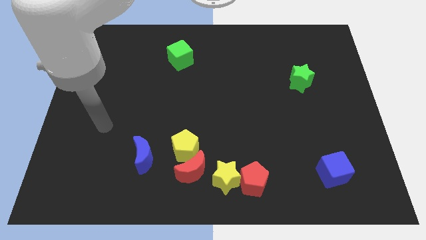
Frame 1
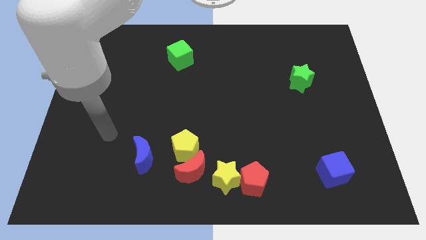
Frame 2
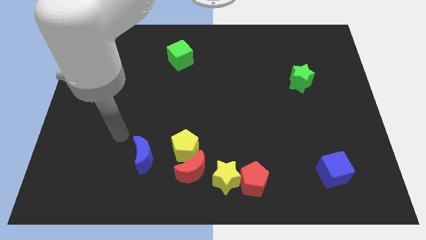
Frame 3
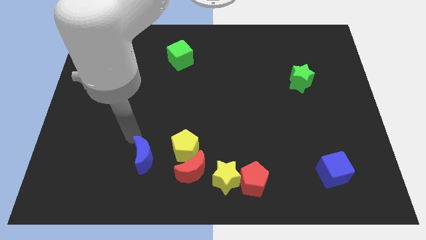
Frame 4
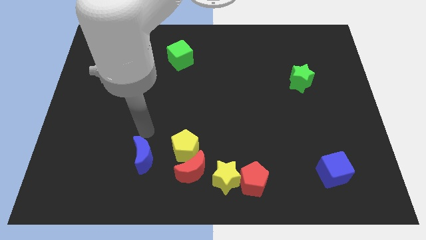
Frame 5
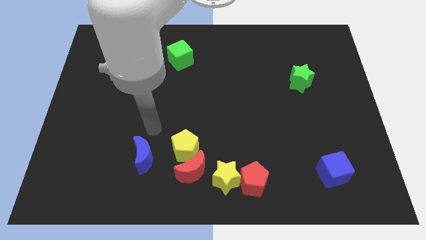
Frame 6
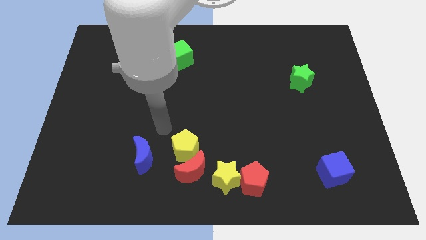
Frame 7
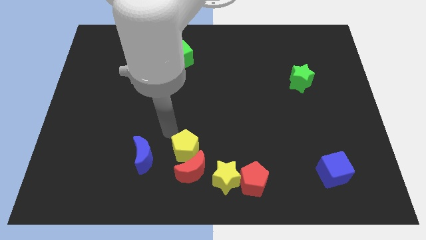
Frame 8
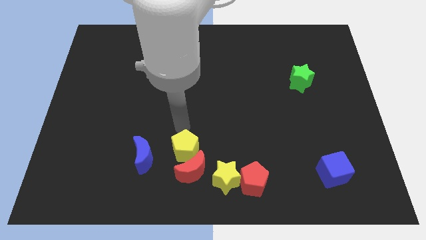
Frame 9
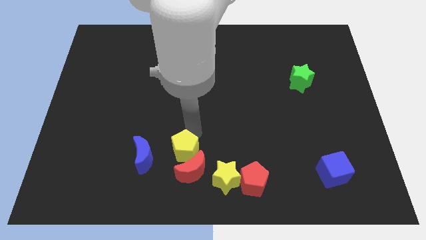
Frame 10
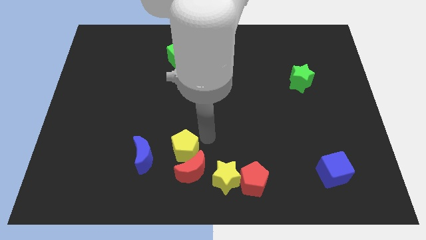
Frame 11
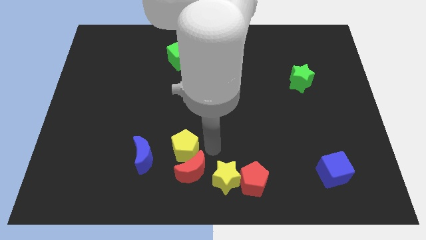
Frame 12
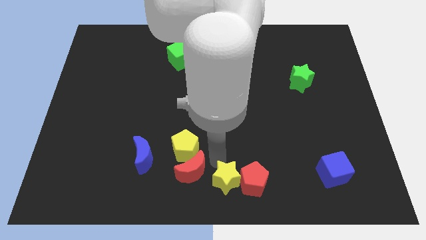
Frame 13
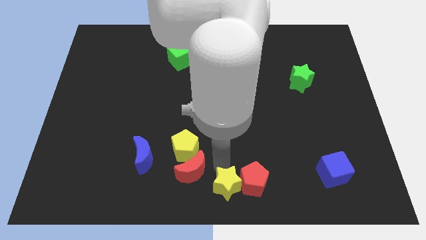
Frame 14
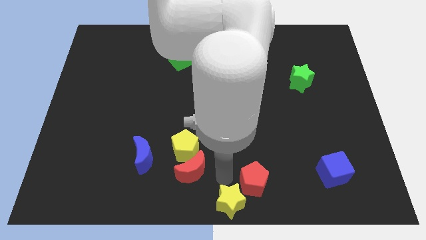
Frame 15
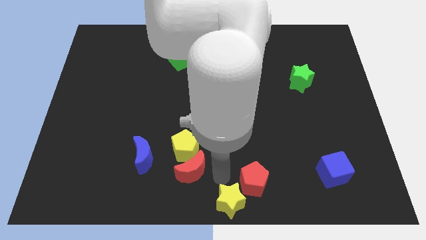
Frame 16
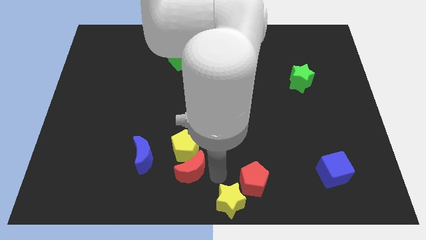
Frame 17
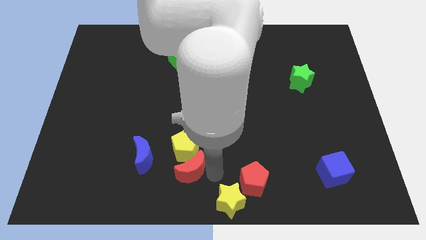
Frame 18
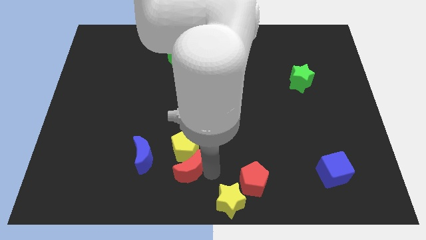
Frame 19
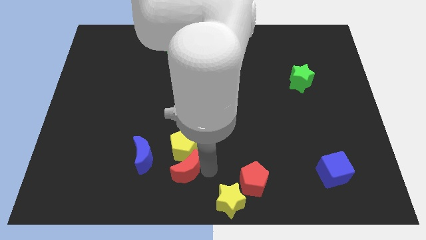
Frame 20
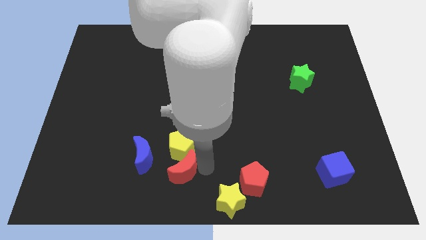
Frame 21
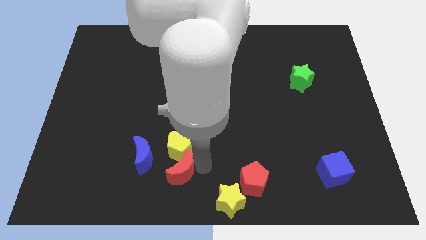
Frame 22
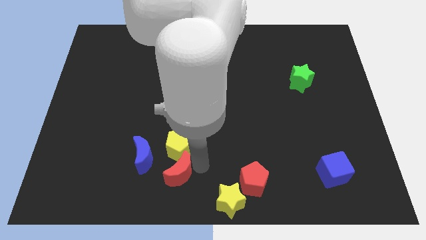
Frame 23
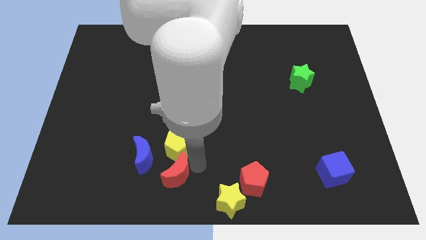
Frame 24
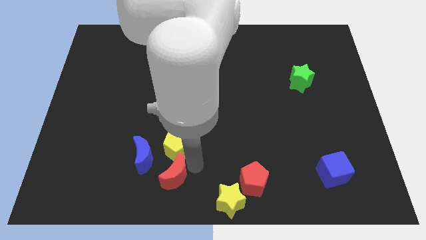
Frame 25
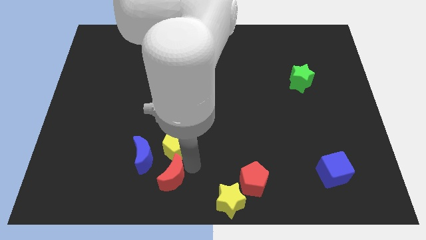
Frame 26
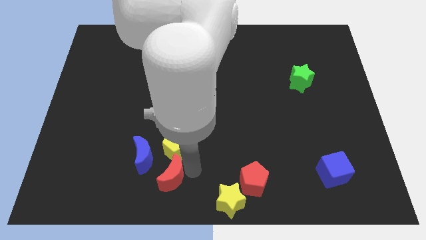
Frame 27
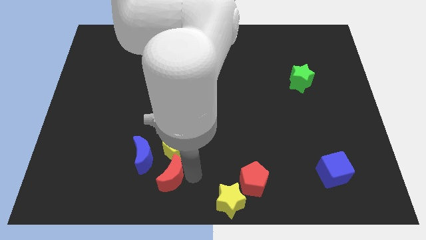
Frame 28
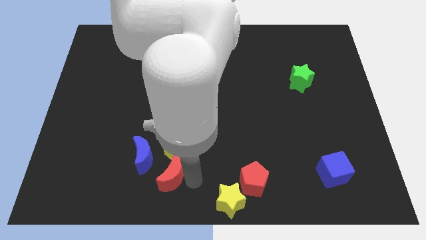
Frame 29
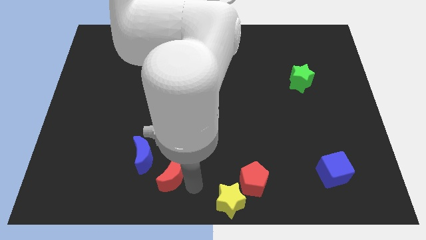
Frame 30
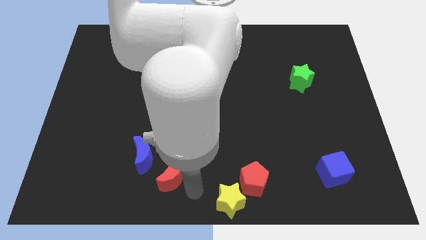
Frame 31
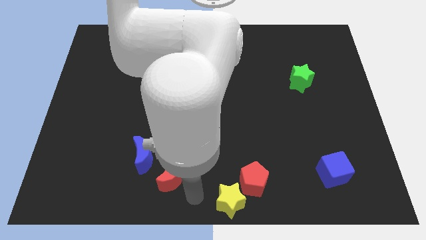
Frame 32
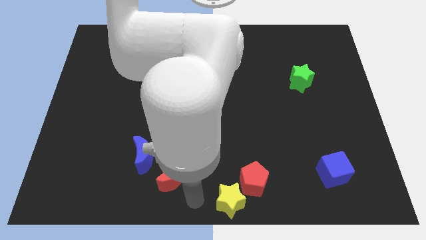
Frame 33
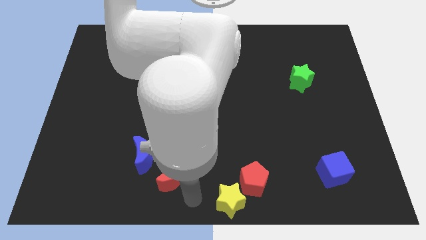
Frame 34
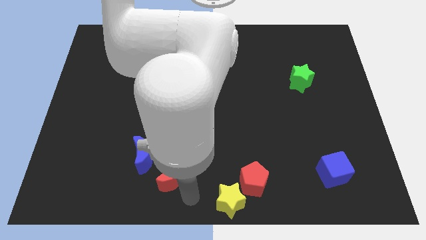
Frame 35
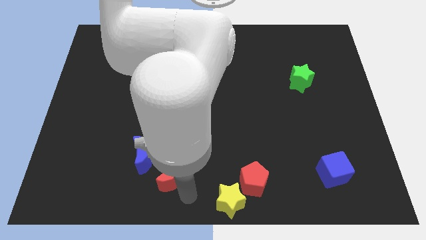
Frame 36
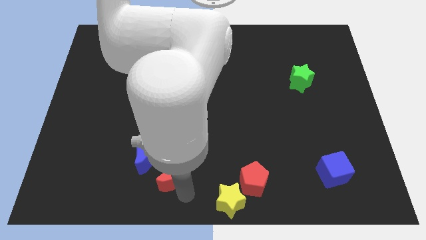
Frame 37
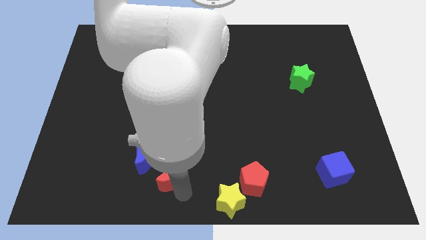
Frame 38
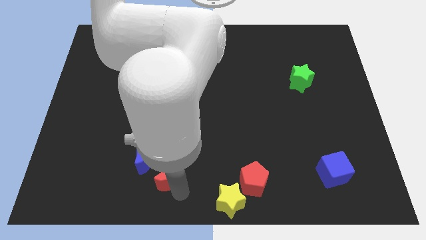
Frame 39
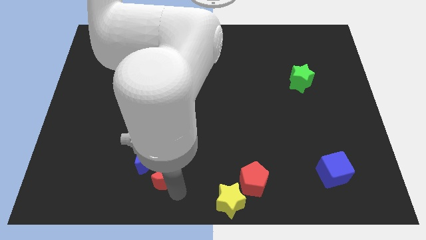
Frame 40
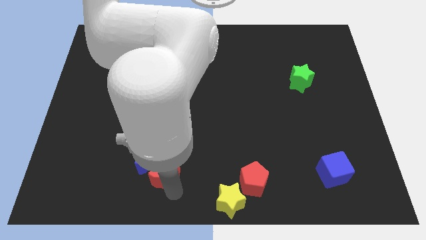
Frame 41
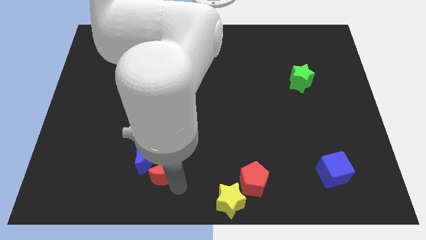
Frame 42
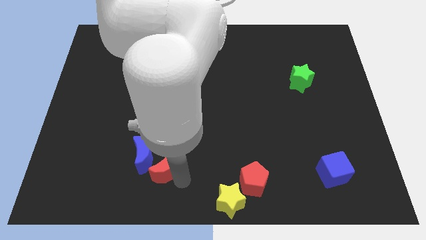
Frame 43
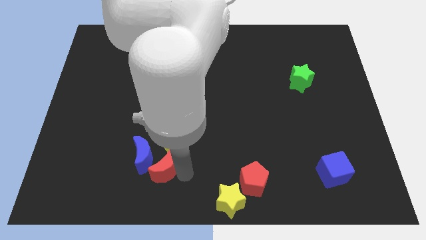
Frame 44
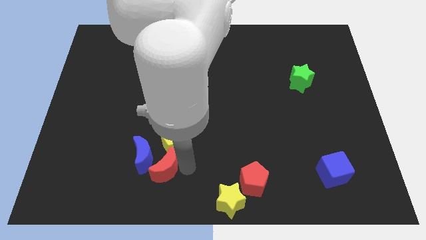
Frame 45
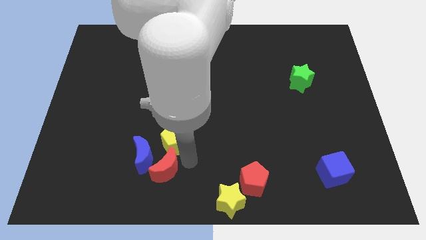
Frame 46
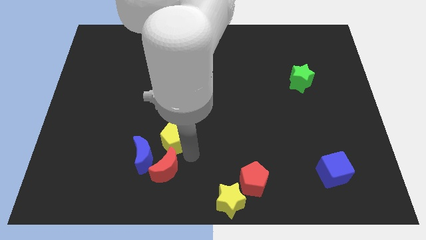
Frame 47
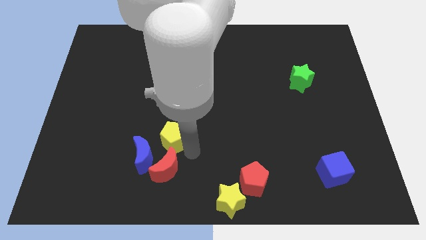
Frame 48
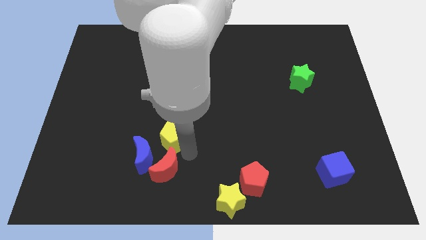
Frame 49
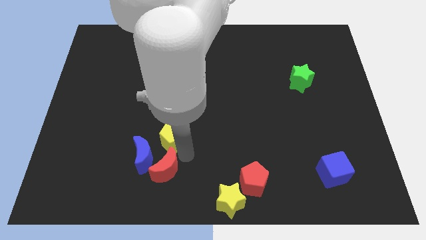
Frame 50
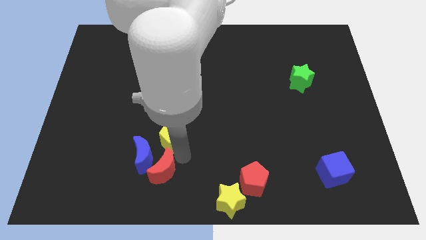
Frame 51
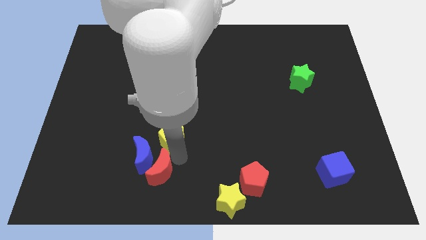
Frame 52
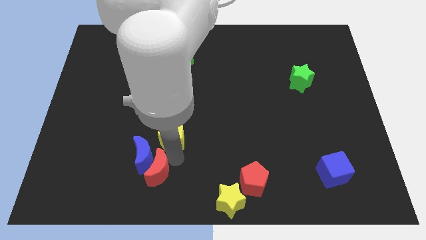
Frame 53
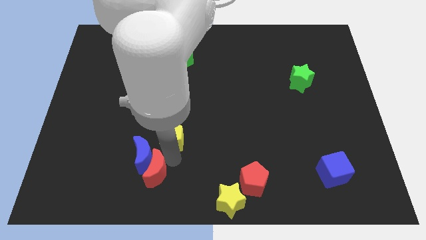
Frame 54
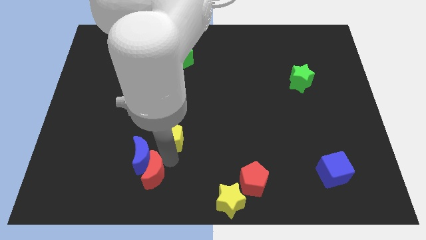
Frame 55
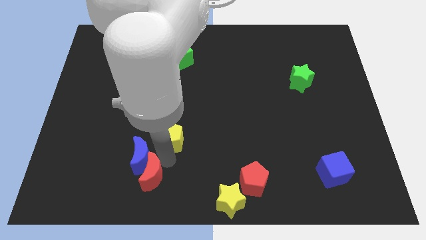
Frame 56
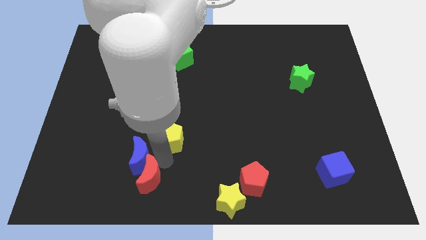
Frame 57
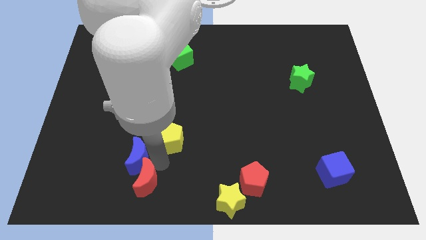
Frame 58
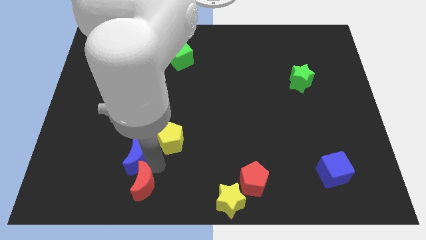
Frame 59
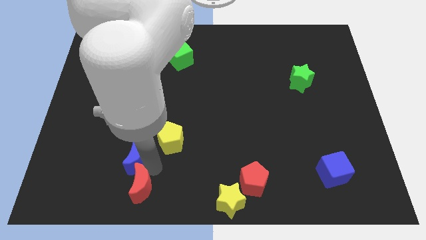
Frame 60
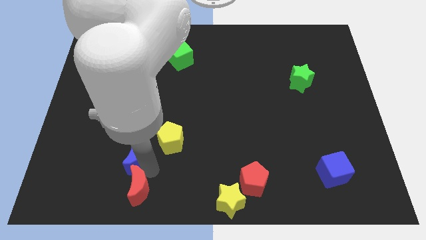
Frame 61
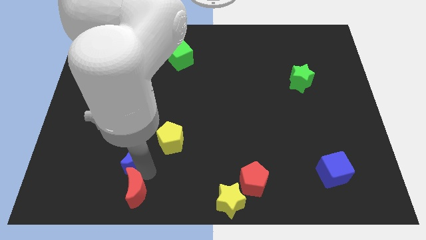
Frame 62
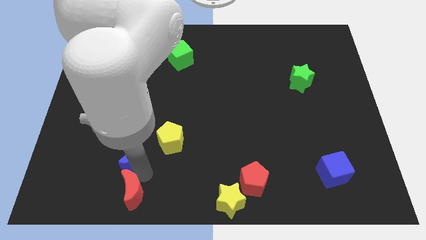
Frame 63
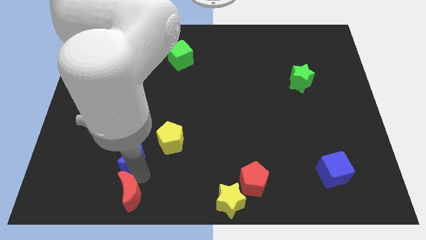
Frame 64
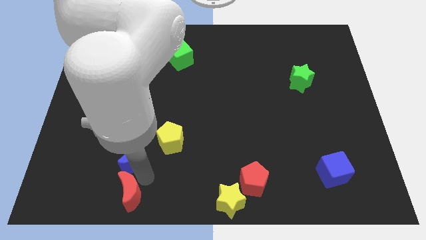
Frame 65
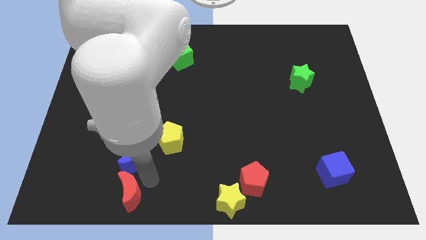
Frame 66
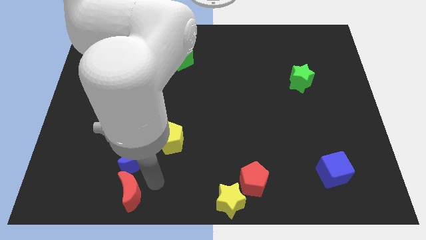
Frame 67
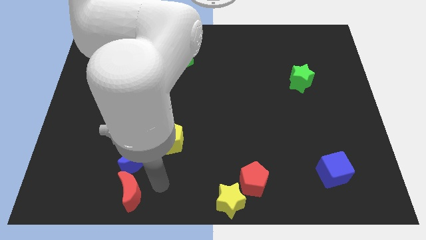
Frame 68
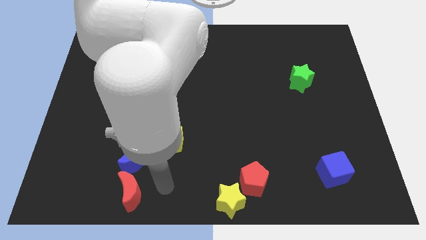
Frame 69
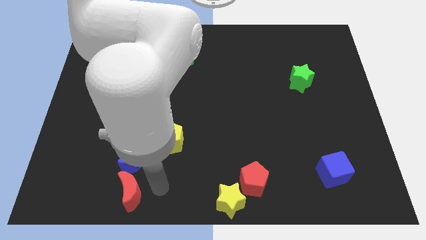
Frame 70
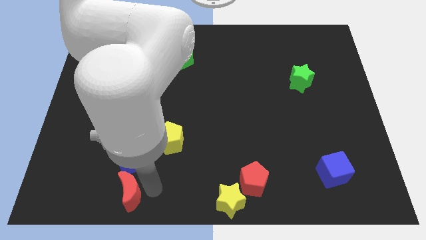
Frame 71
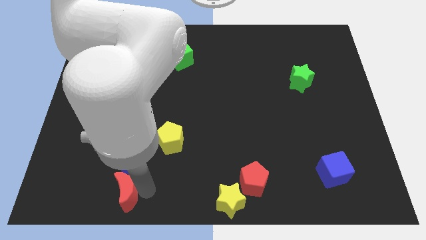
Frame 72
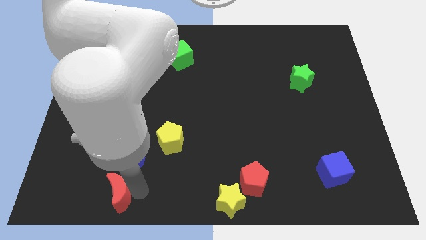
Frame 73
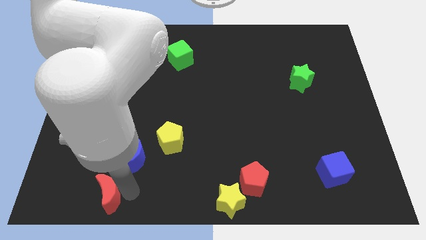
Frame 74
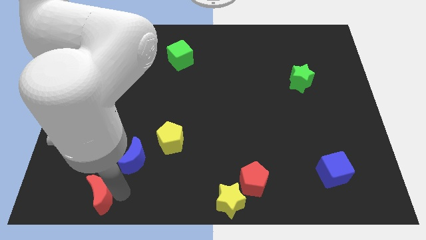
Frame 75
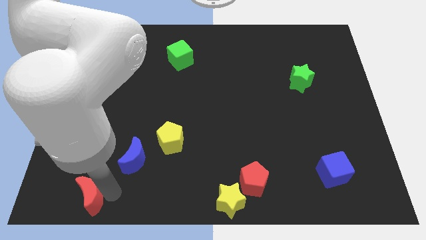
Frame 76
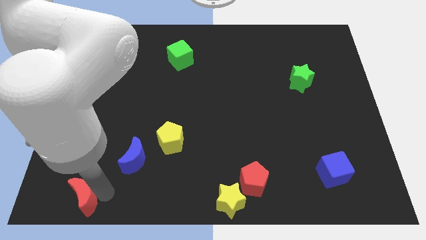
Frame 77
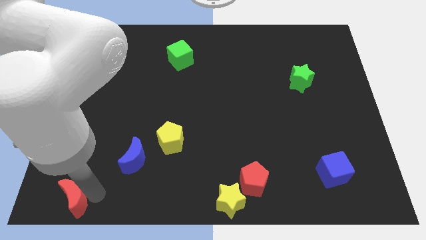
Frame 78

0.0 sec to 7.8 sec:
move the red moon to the bottom left corner
